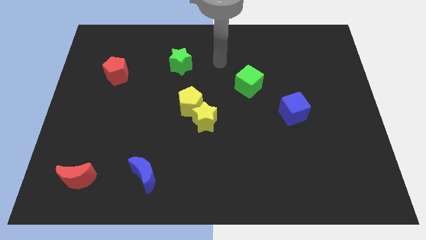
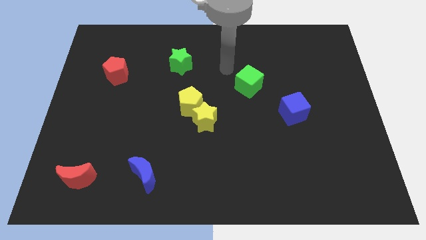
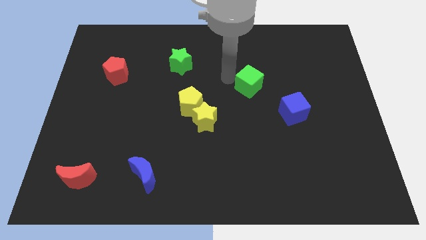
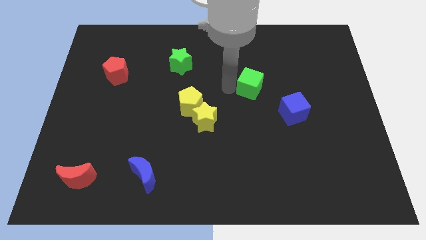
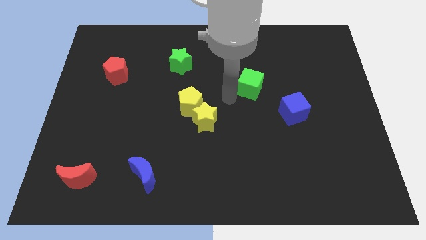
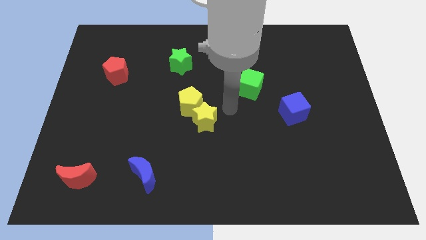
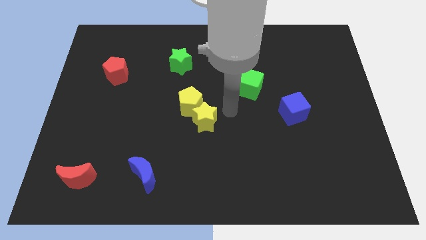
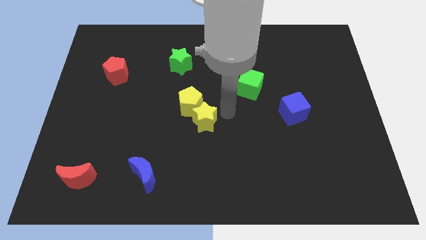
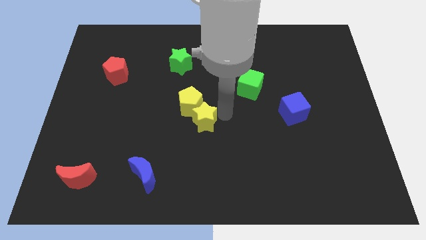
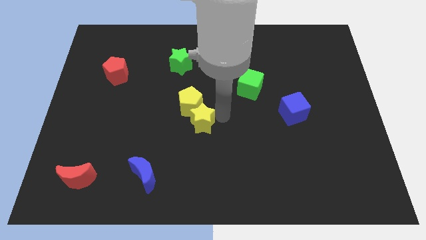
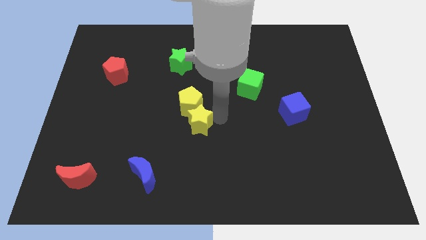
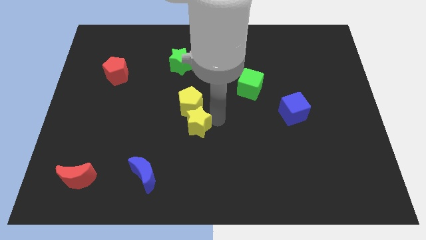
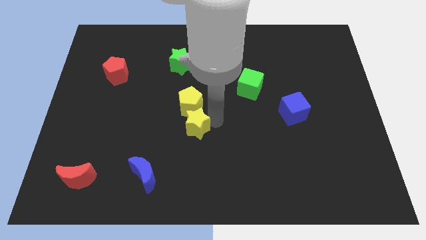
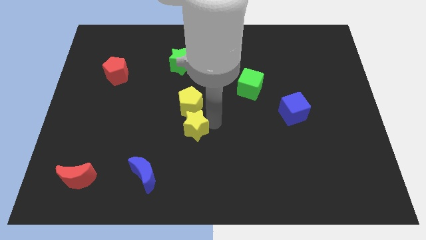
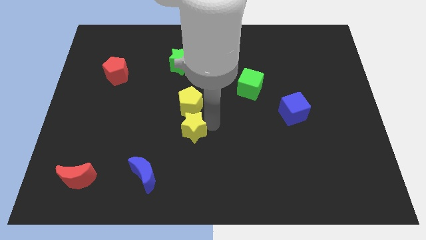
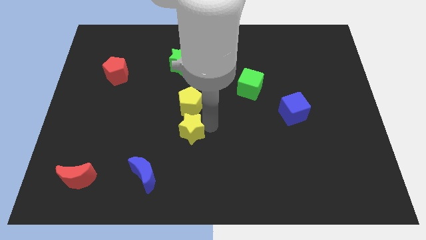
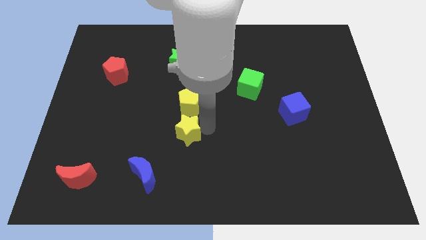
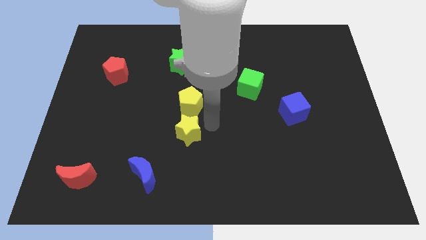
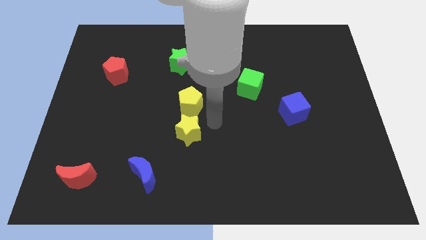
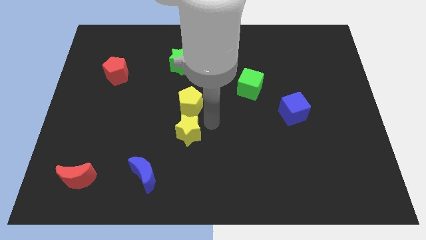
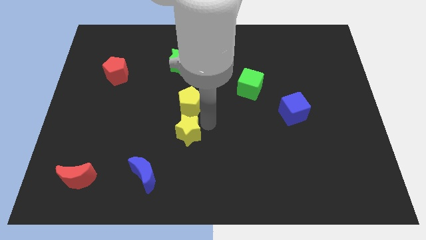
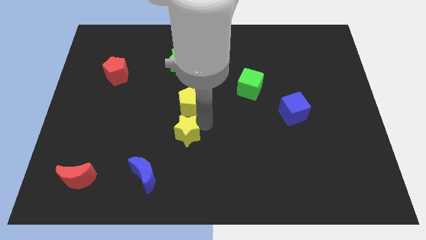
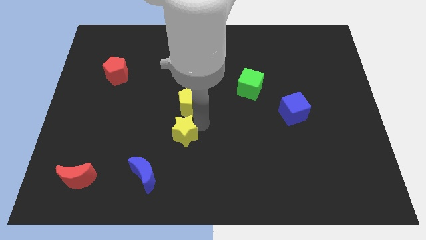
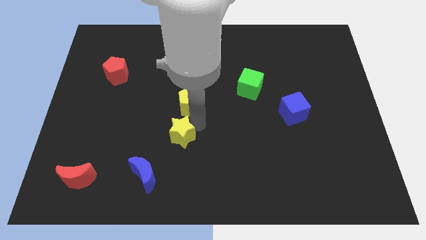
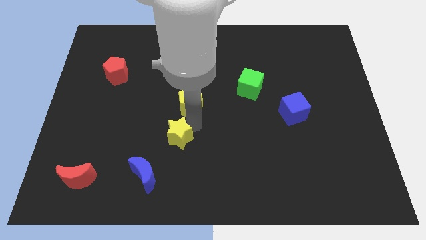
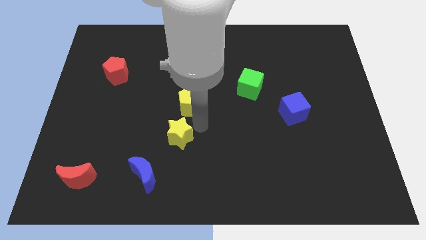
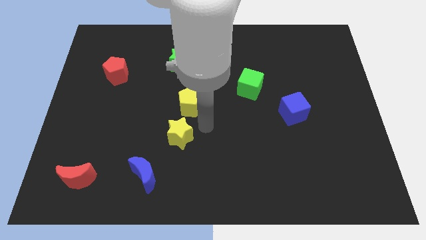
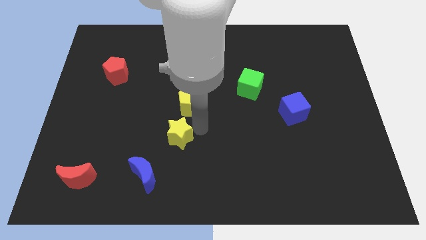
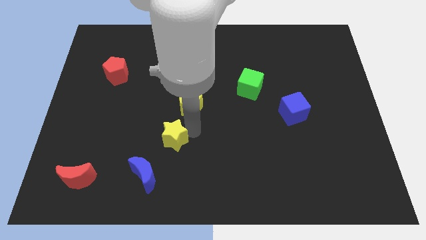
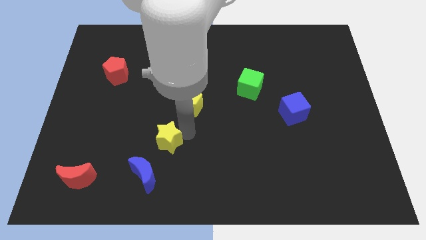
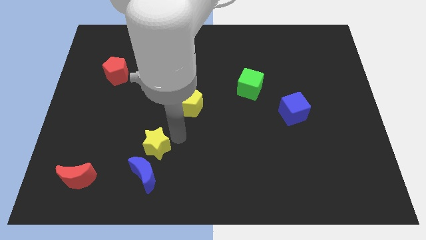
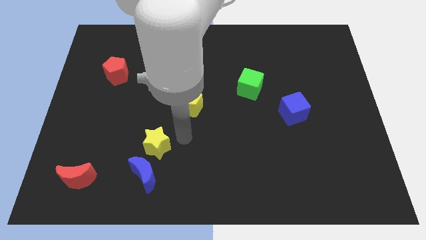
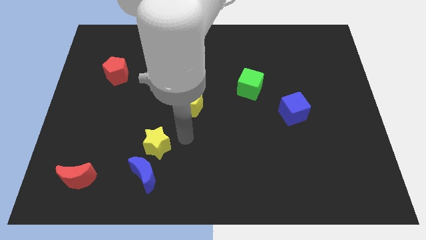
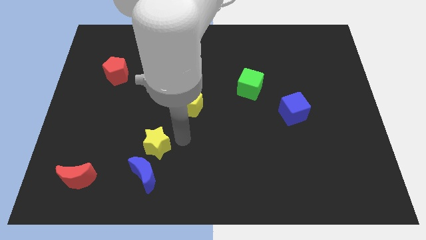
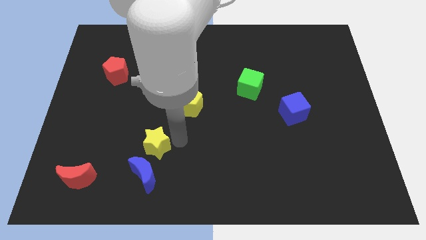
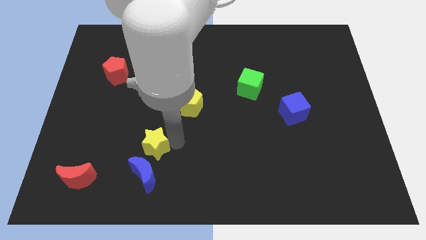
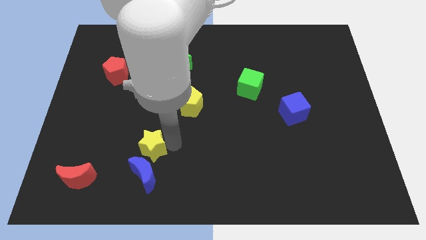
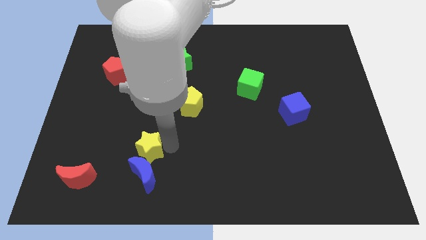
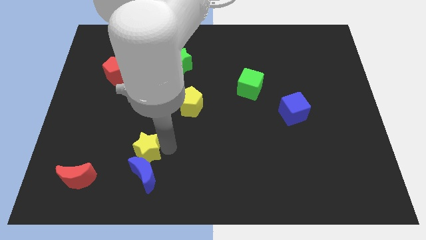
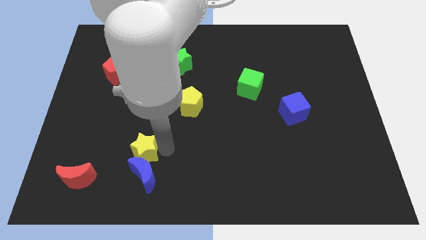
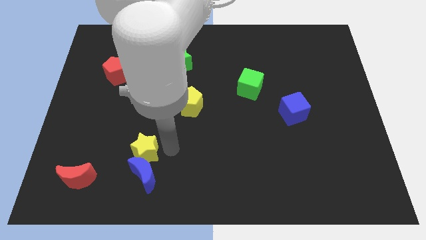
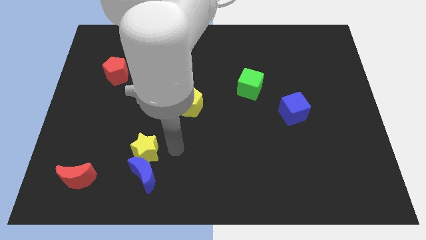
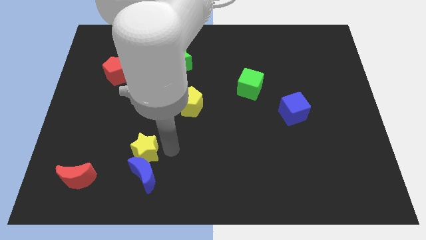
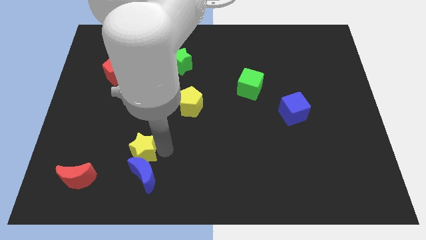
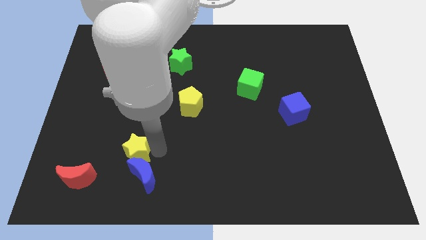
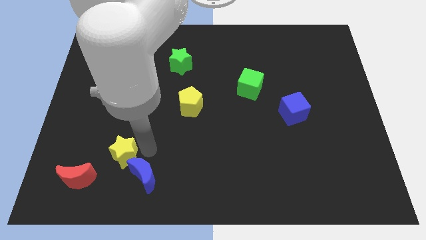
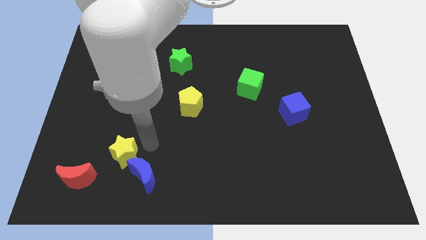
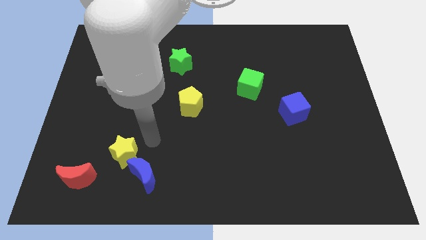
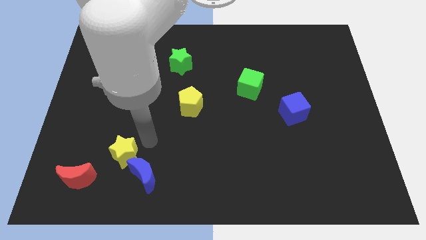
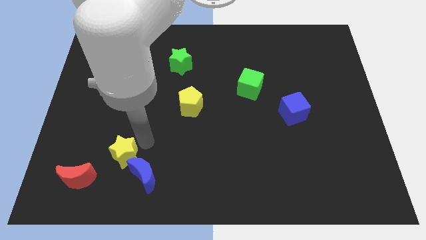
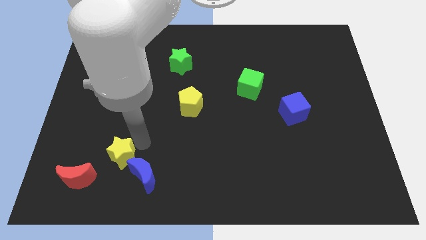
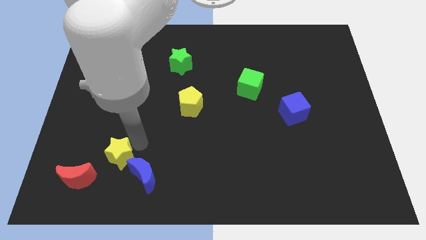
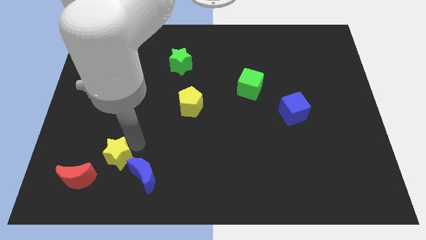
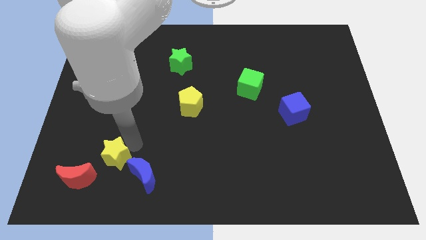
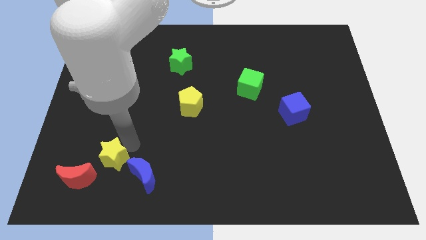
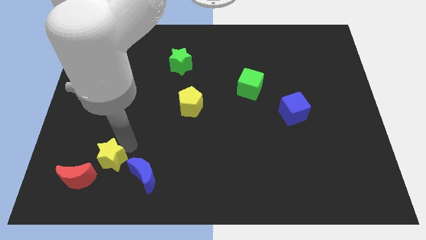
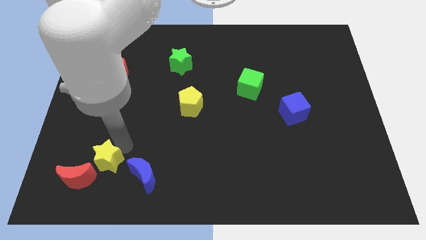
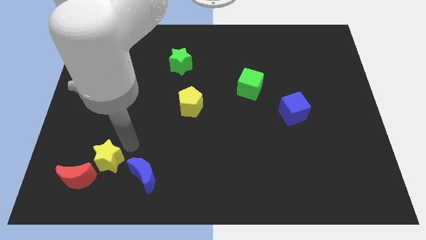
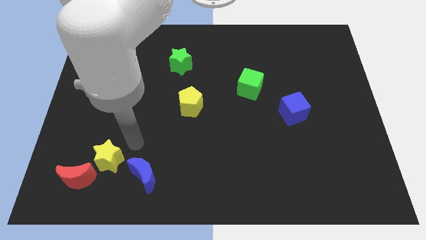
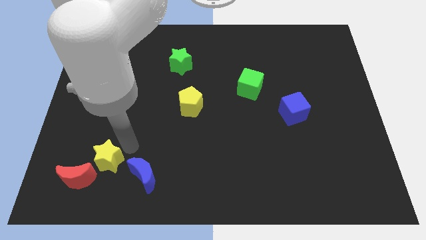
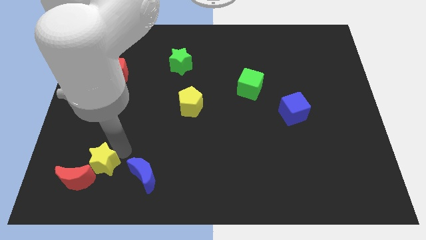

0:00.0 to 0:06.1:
move the yellow star close to the red moon

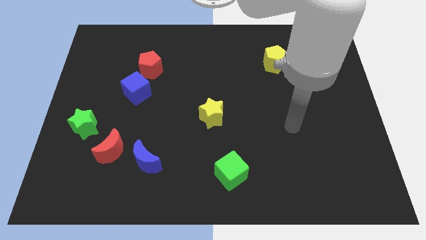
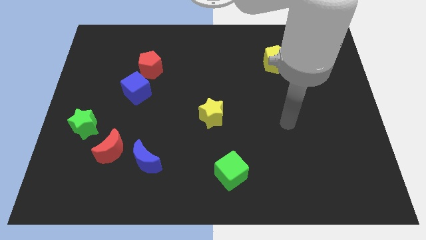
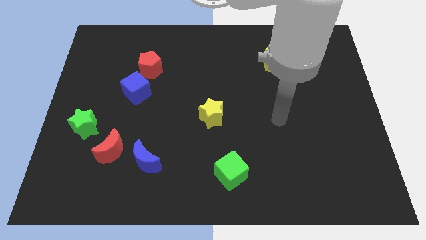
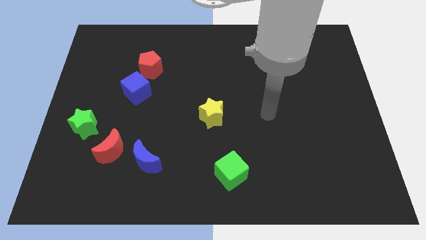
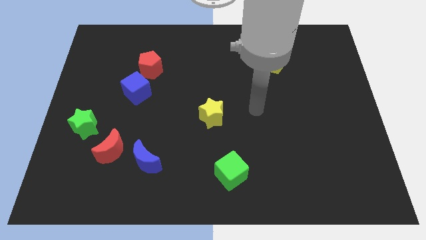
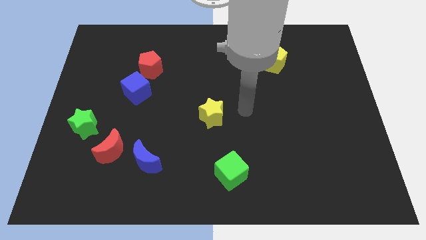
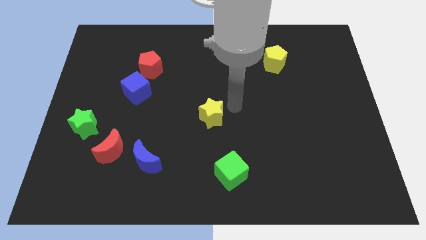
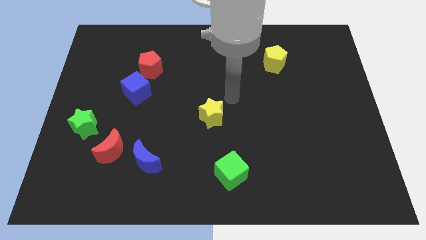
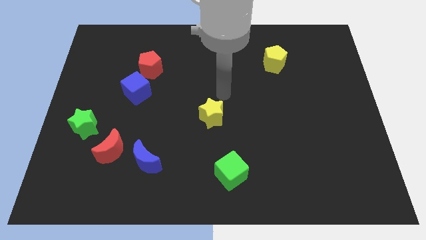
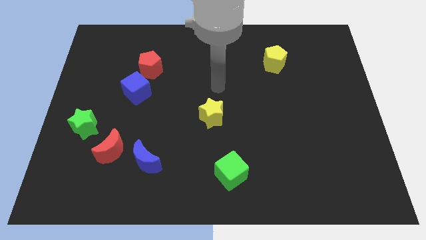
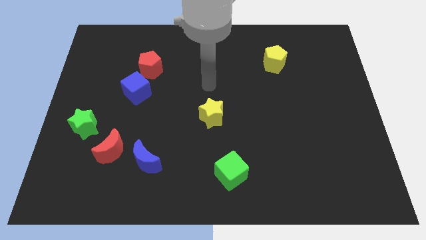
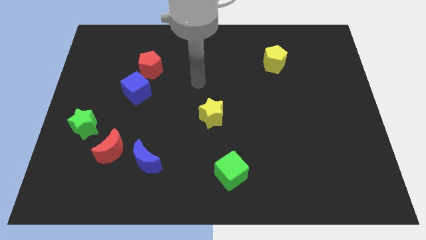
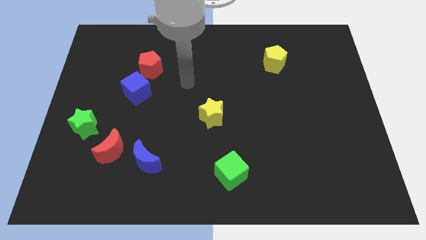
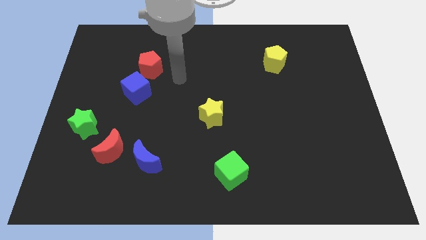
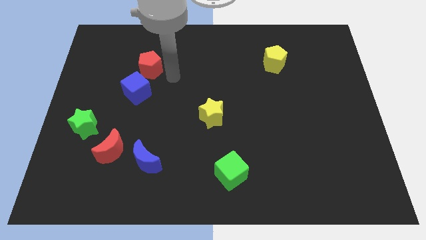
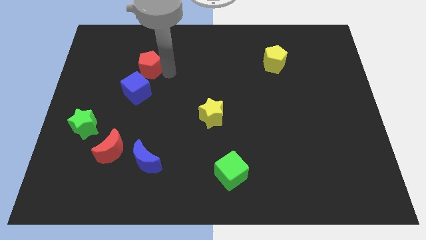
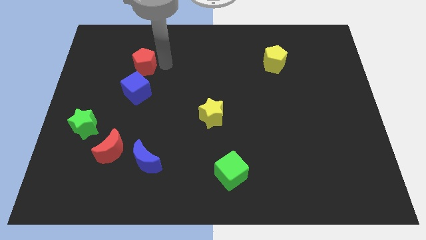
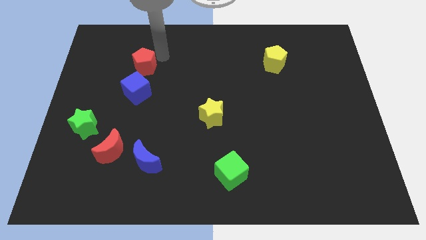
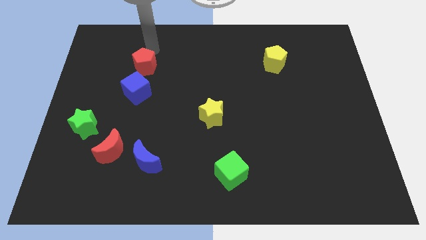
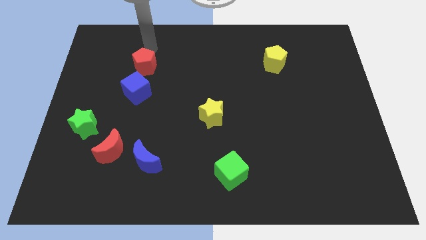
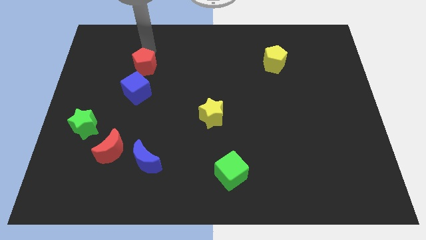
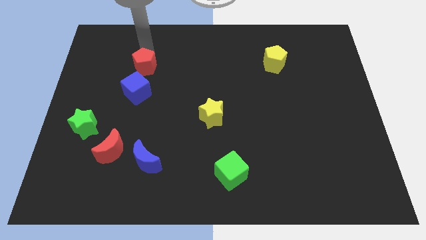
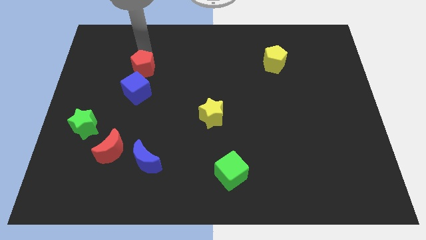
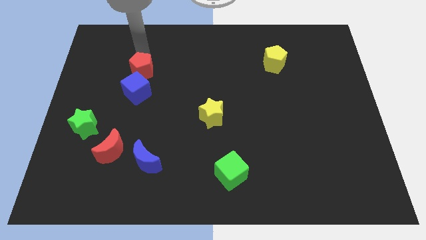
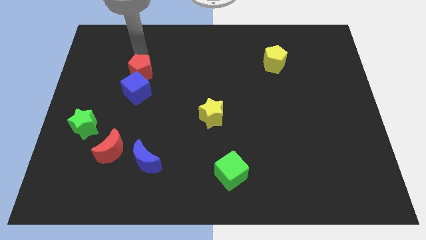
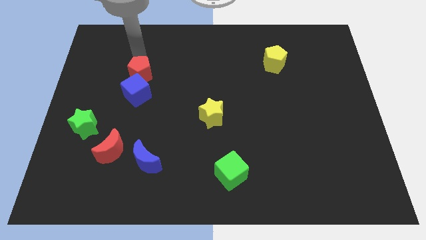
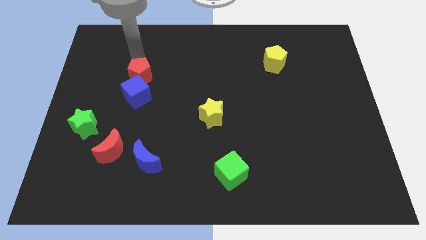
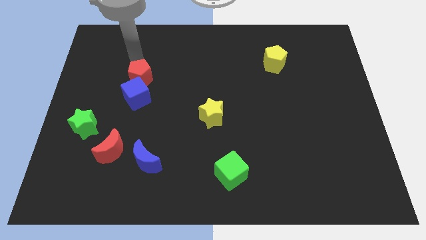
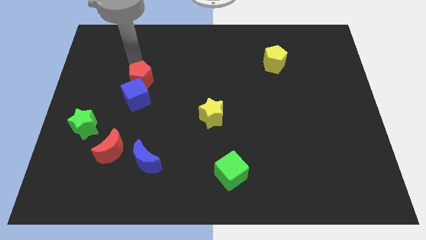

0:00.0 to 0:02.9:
put the red pentagon to the blue cube
